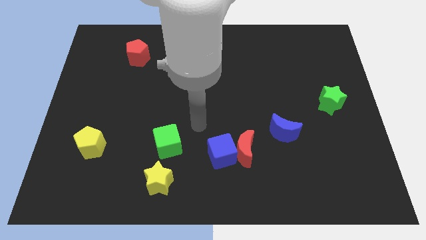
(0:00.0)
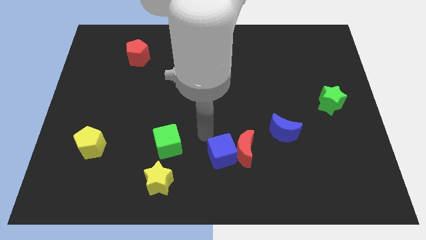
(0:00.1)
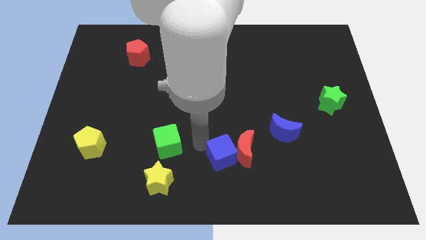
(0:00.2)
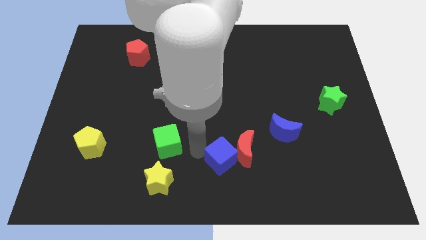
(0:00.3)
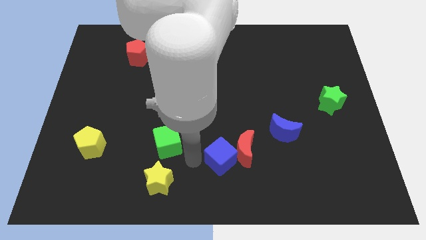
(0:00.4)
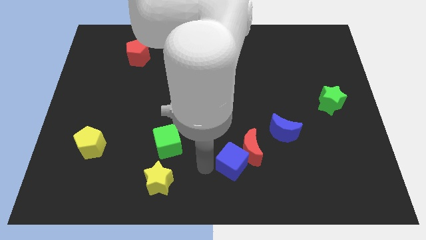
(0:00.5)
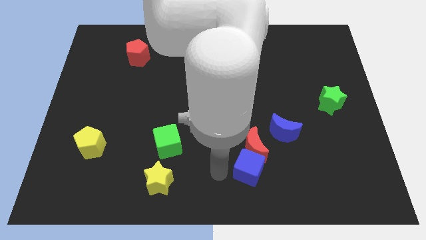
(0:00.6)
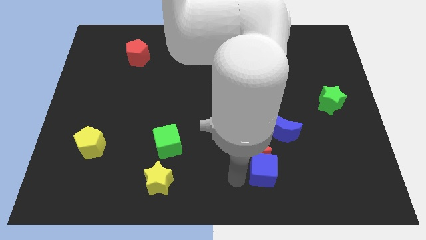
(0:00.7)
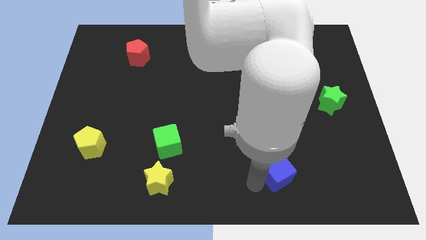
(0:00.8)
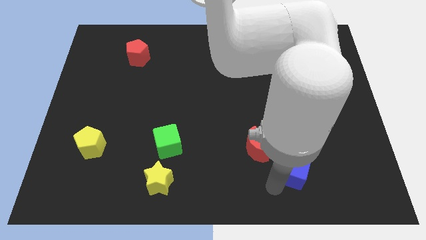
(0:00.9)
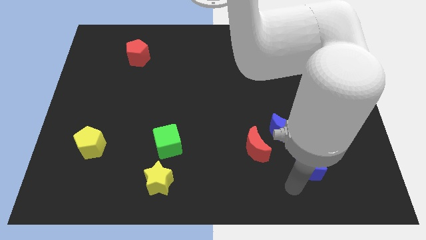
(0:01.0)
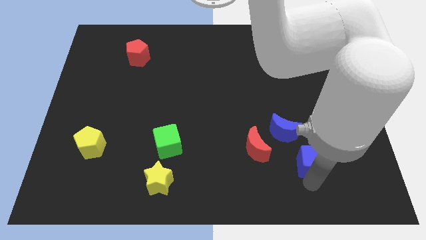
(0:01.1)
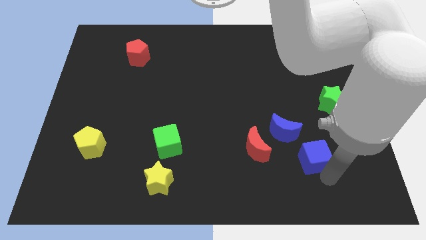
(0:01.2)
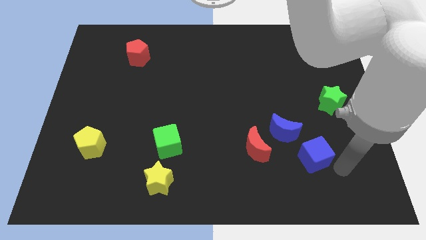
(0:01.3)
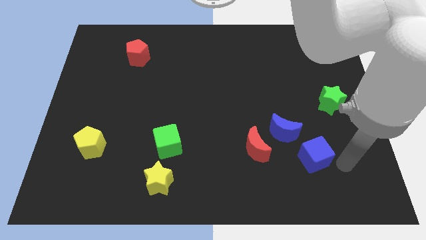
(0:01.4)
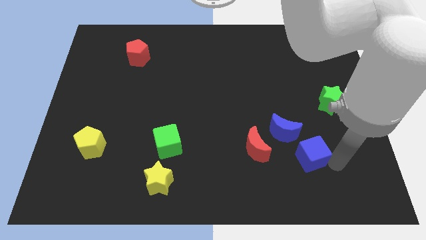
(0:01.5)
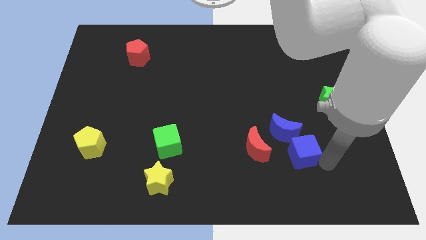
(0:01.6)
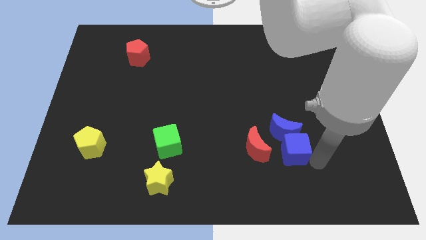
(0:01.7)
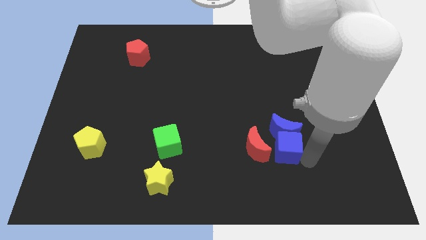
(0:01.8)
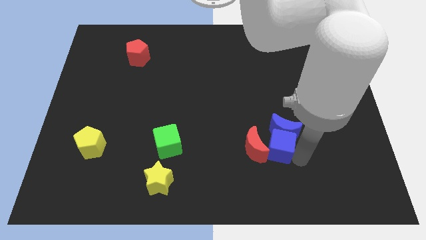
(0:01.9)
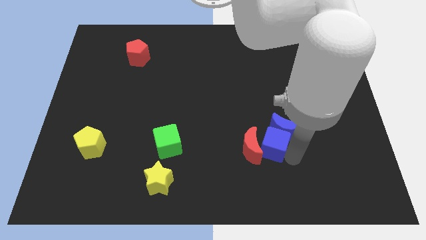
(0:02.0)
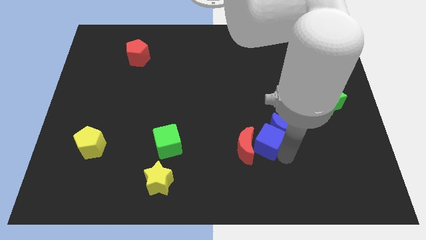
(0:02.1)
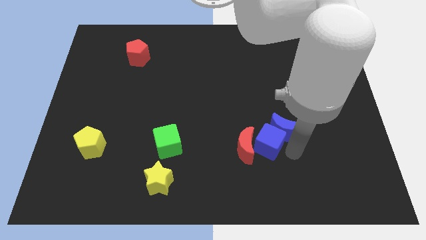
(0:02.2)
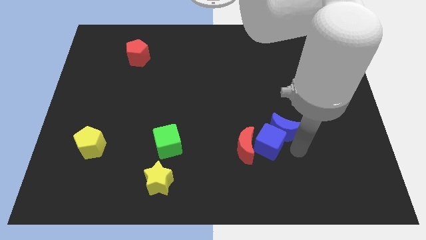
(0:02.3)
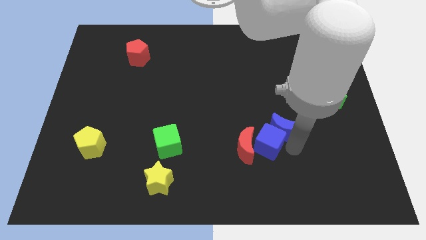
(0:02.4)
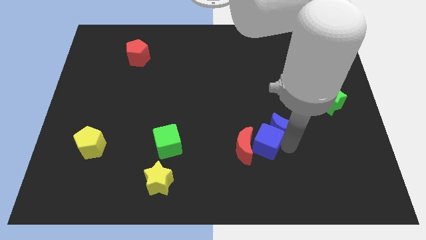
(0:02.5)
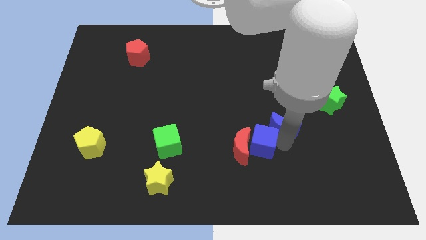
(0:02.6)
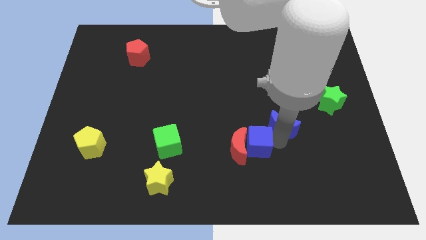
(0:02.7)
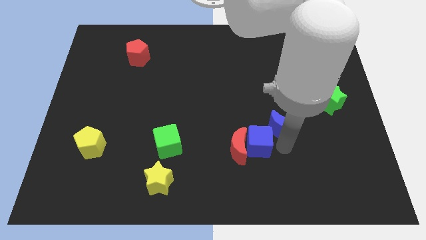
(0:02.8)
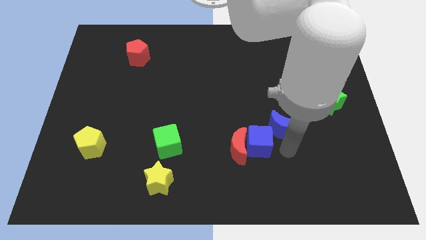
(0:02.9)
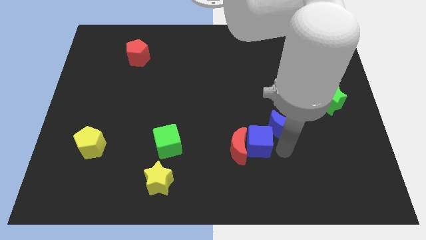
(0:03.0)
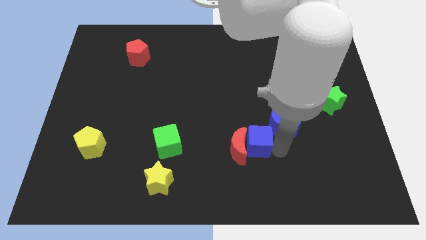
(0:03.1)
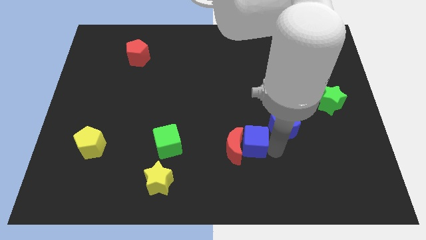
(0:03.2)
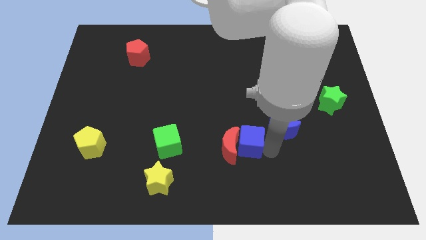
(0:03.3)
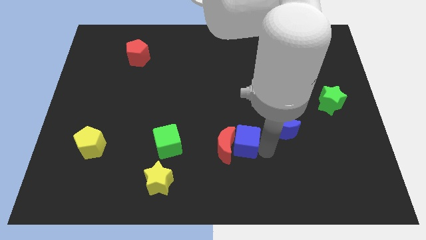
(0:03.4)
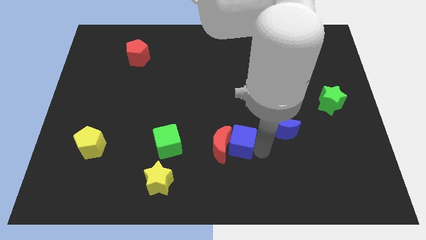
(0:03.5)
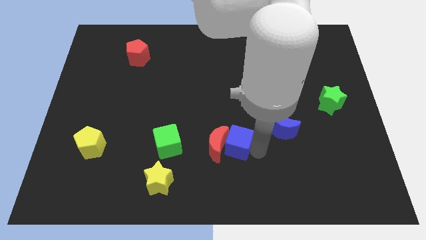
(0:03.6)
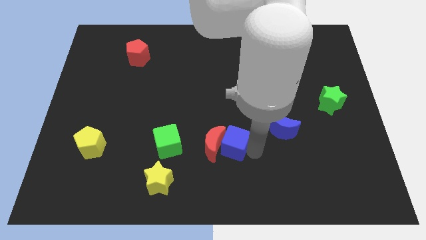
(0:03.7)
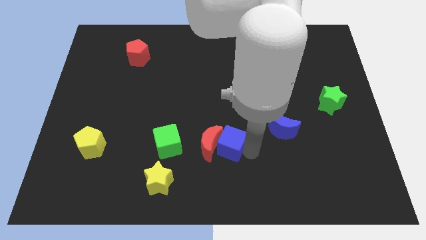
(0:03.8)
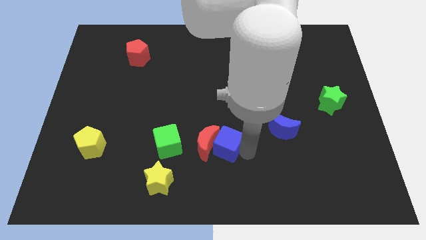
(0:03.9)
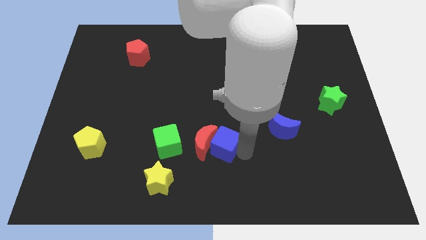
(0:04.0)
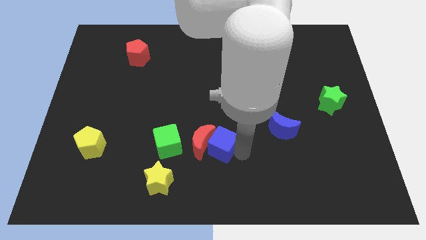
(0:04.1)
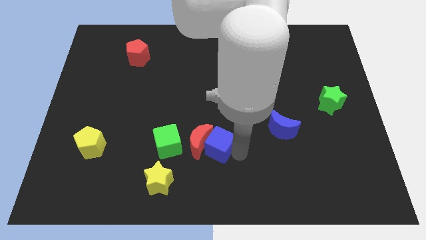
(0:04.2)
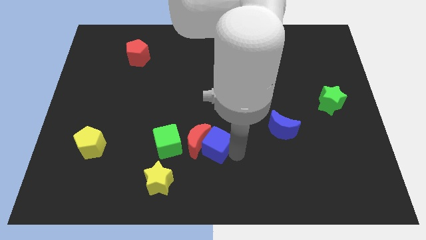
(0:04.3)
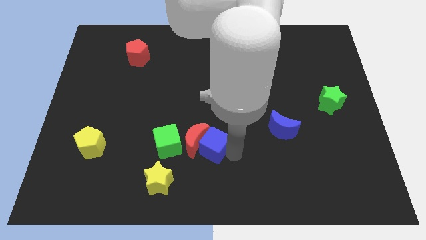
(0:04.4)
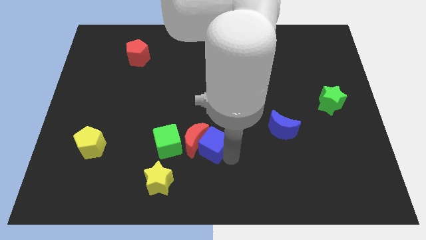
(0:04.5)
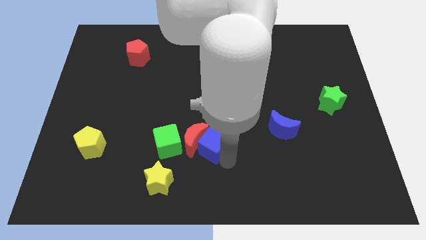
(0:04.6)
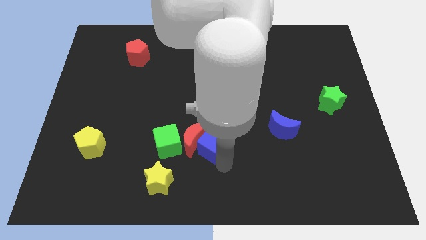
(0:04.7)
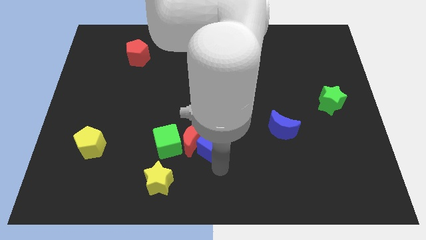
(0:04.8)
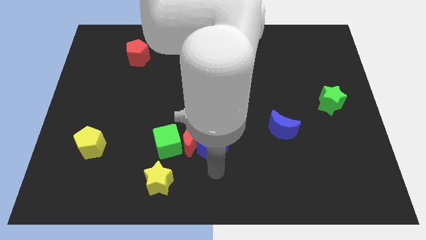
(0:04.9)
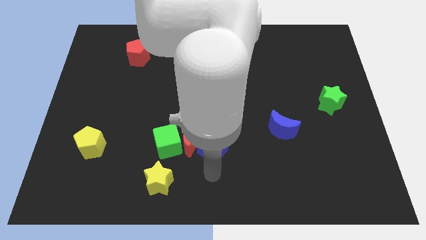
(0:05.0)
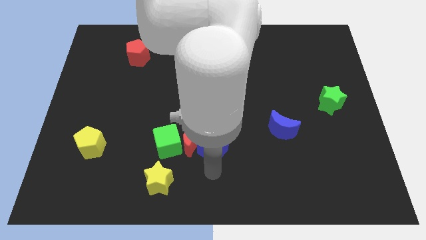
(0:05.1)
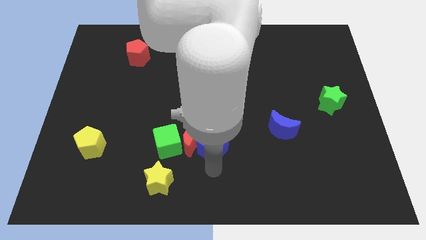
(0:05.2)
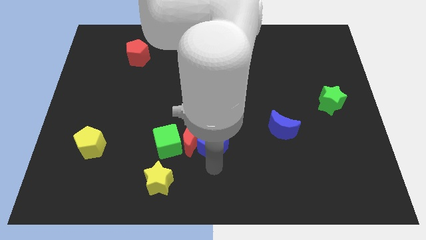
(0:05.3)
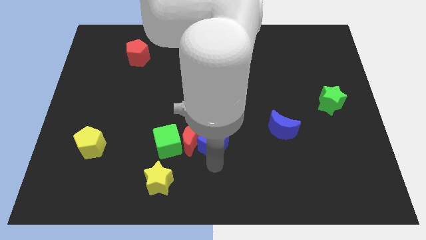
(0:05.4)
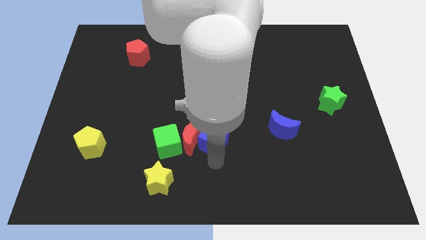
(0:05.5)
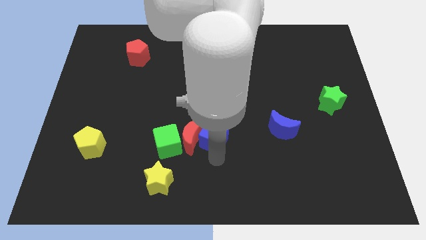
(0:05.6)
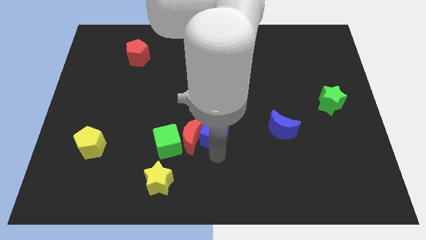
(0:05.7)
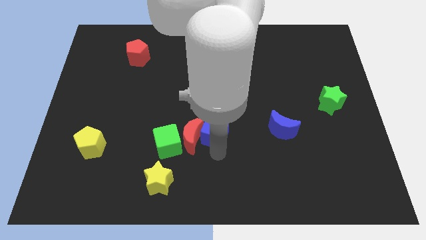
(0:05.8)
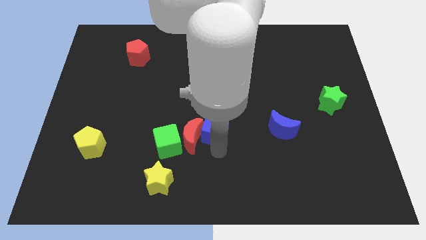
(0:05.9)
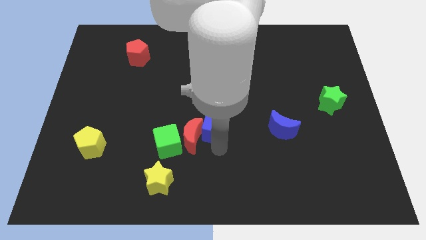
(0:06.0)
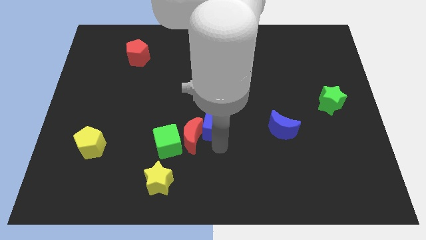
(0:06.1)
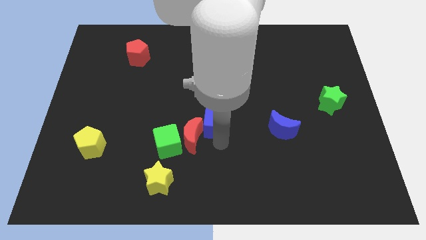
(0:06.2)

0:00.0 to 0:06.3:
move the blue cube slightly up

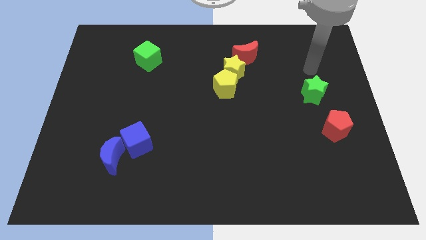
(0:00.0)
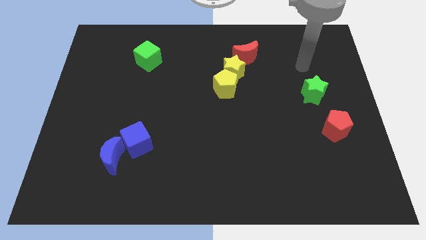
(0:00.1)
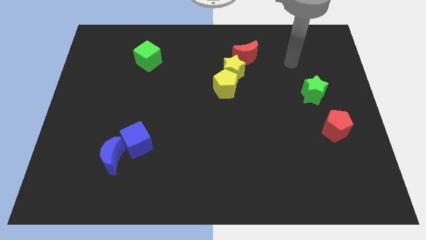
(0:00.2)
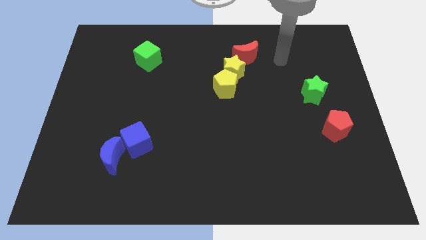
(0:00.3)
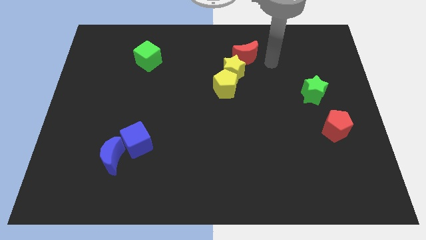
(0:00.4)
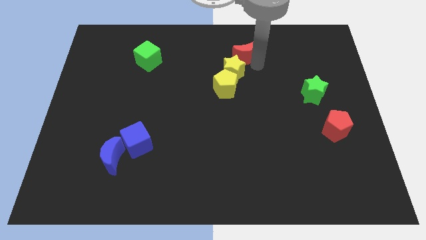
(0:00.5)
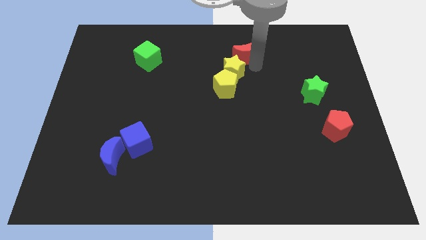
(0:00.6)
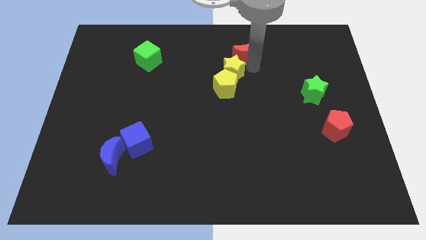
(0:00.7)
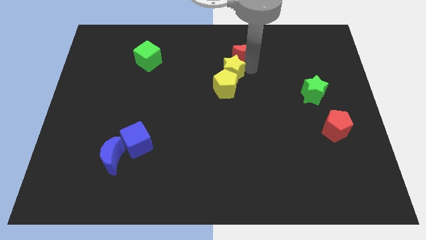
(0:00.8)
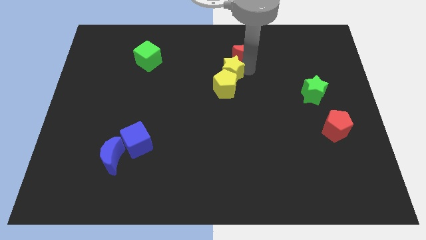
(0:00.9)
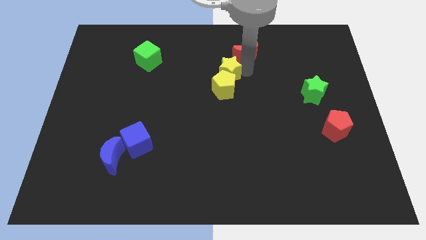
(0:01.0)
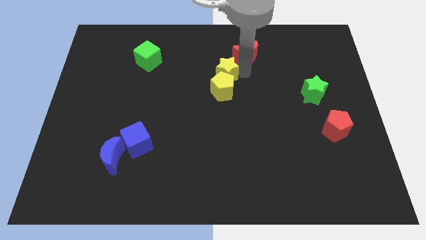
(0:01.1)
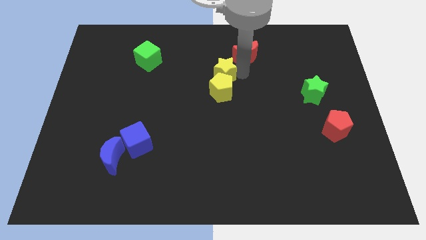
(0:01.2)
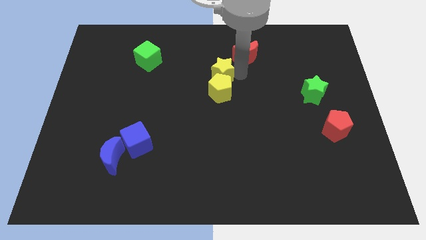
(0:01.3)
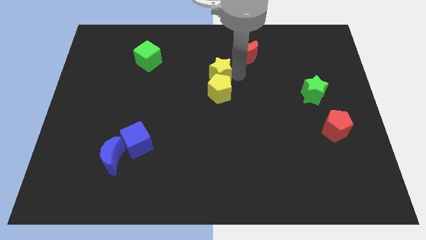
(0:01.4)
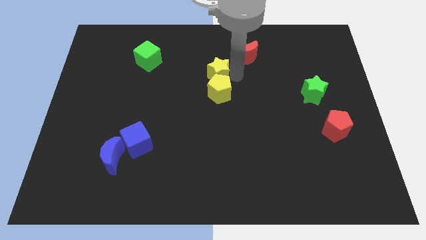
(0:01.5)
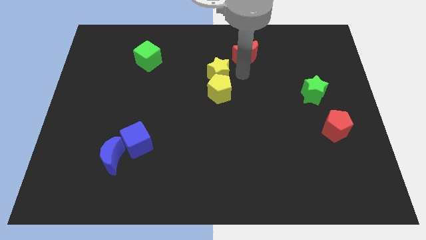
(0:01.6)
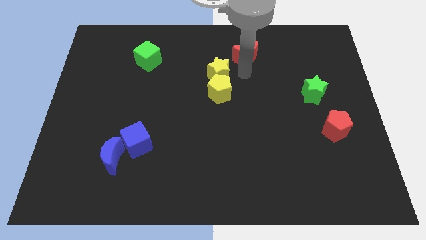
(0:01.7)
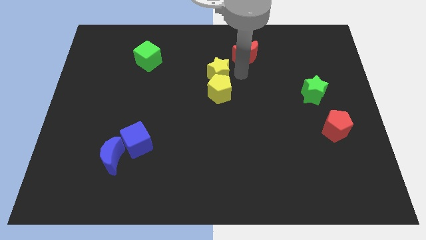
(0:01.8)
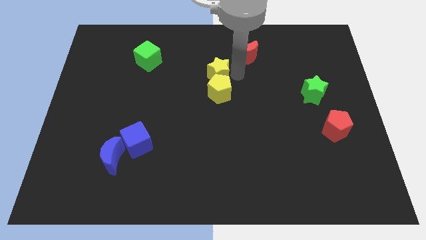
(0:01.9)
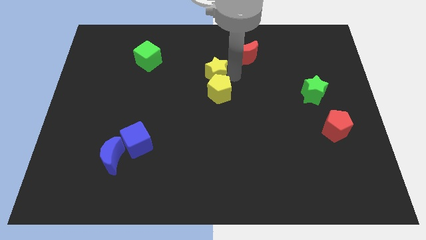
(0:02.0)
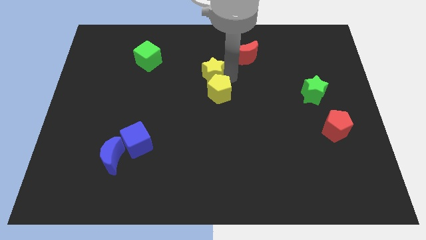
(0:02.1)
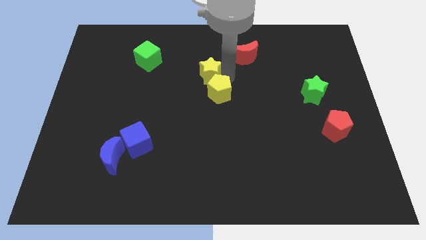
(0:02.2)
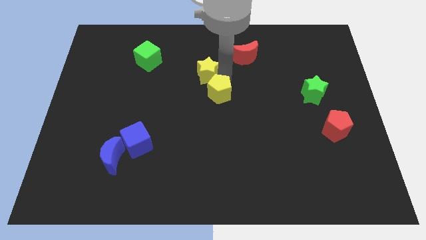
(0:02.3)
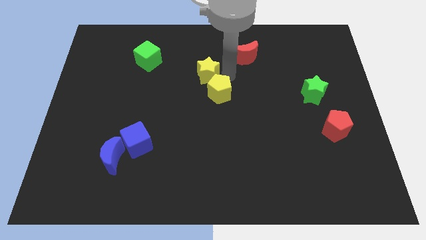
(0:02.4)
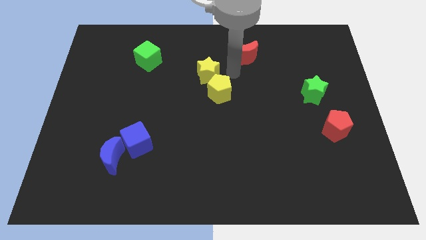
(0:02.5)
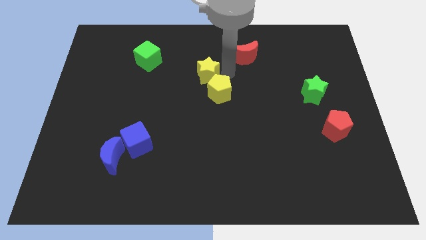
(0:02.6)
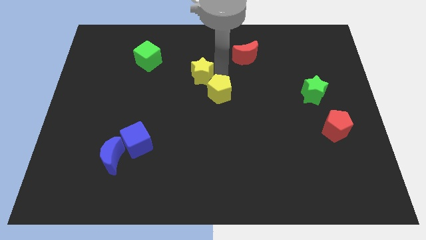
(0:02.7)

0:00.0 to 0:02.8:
slide the yellow star somewhat left
